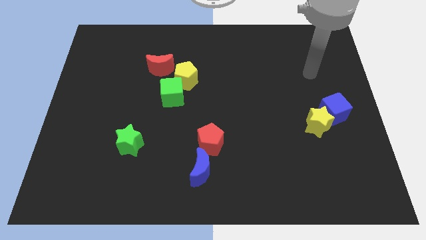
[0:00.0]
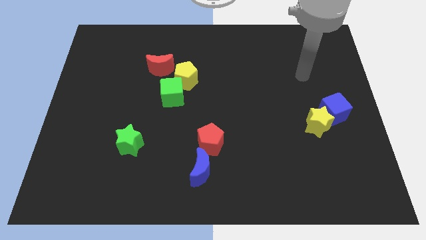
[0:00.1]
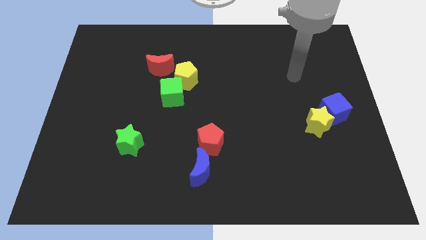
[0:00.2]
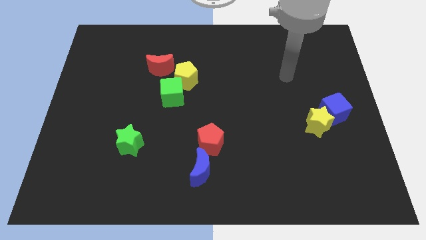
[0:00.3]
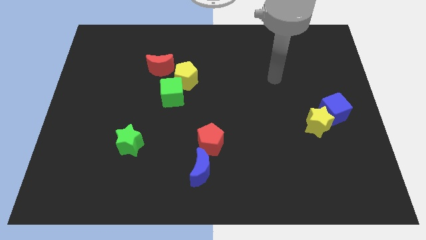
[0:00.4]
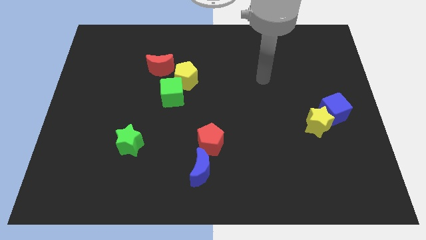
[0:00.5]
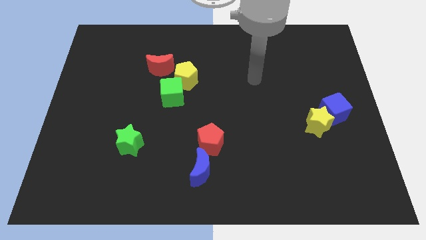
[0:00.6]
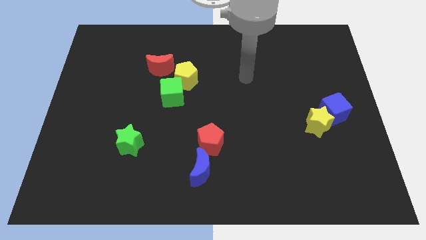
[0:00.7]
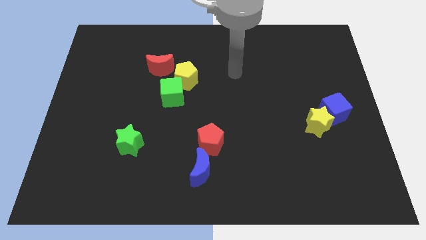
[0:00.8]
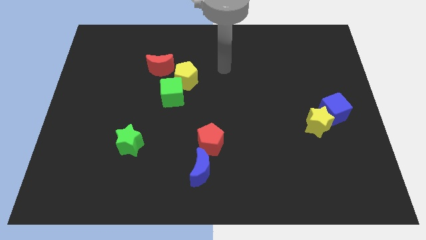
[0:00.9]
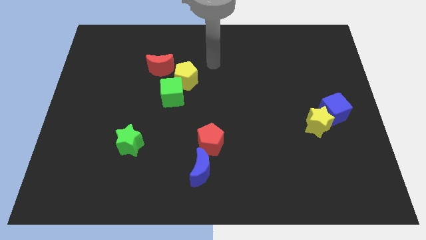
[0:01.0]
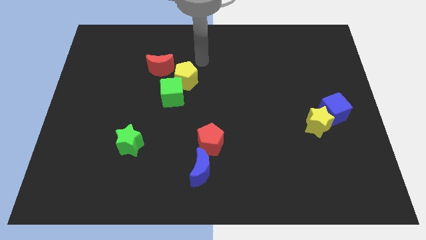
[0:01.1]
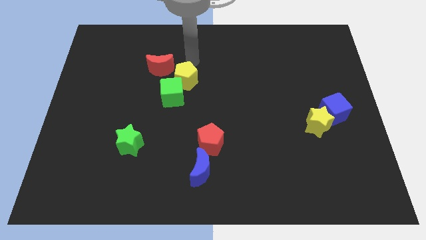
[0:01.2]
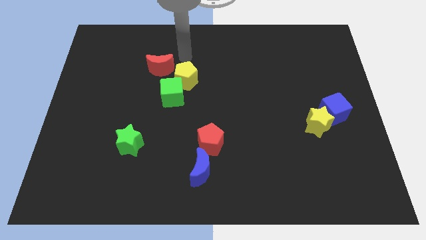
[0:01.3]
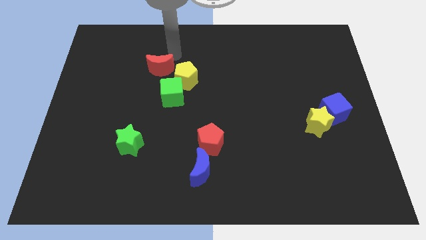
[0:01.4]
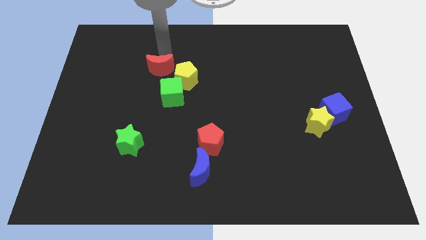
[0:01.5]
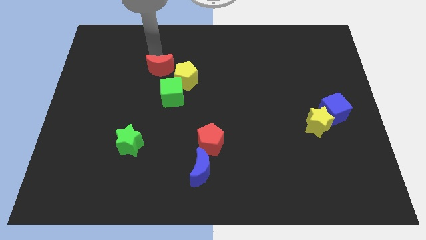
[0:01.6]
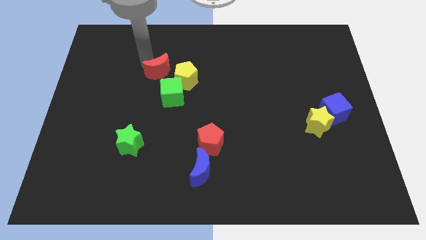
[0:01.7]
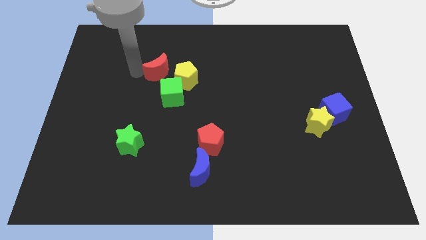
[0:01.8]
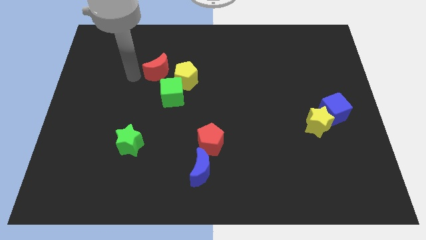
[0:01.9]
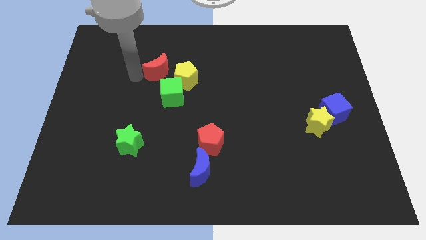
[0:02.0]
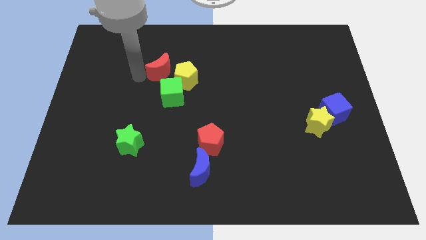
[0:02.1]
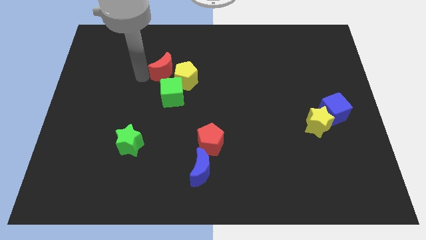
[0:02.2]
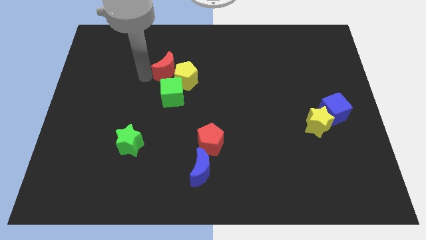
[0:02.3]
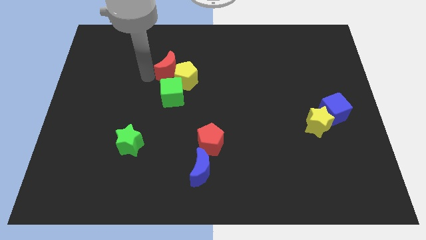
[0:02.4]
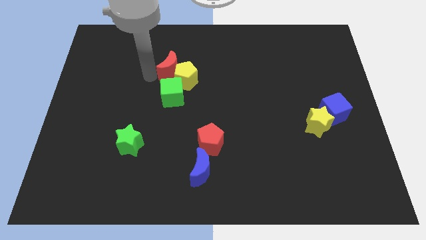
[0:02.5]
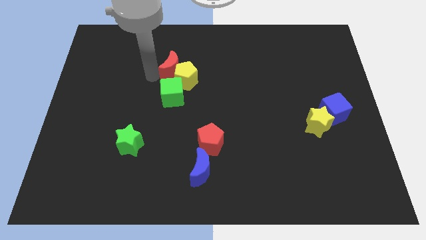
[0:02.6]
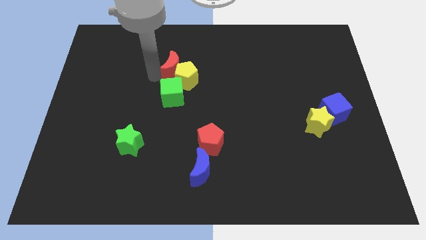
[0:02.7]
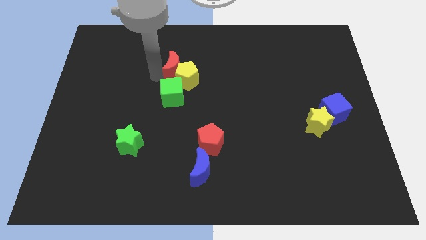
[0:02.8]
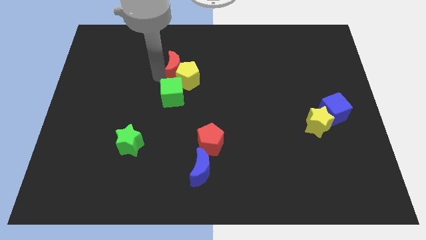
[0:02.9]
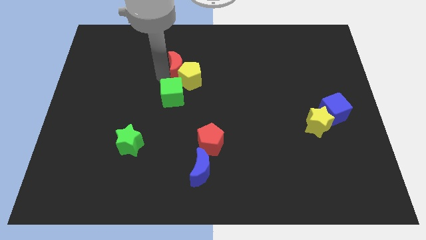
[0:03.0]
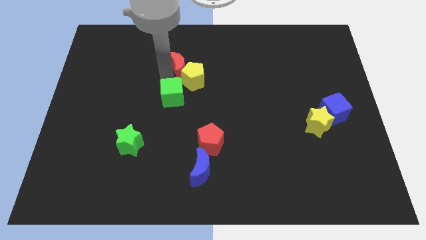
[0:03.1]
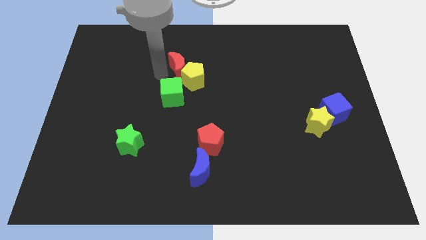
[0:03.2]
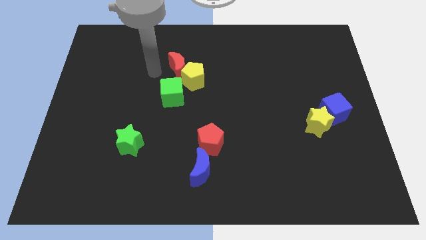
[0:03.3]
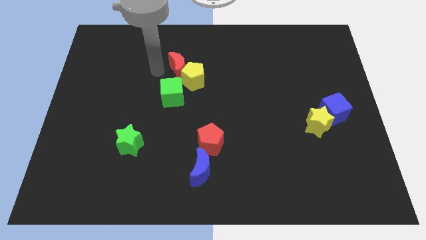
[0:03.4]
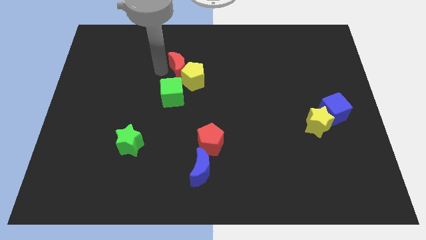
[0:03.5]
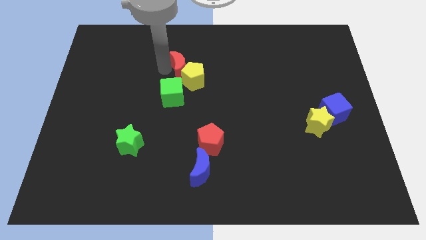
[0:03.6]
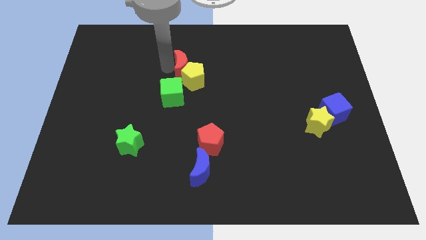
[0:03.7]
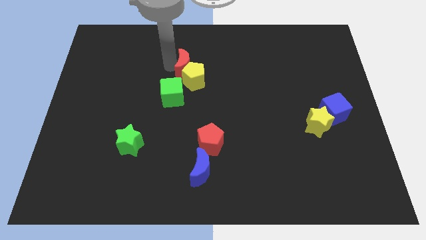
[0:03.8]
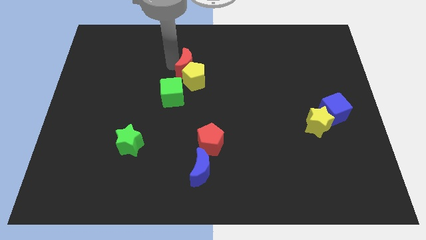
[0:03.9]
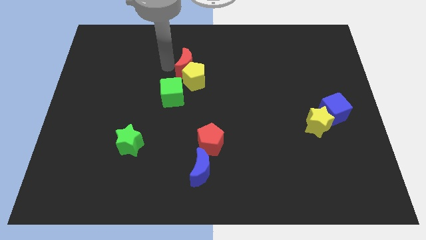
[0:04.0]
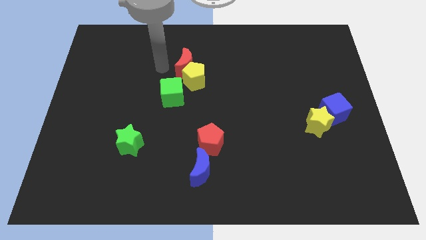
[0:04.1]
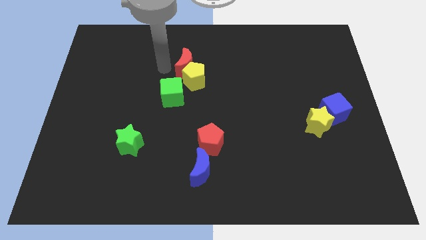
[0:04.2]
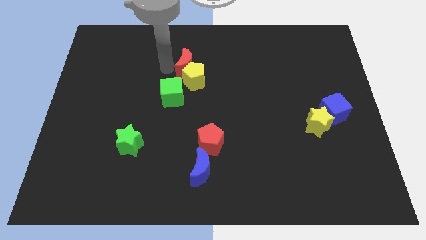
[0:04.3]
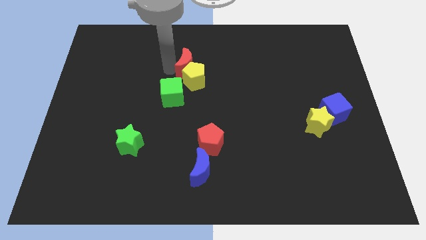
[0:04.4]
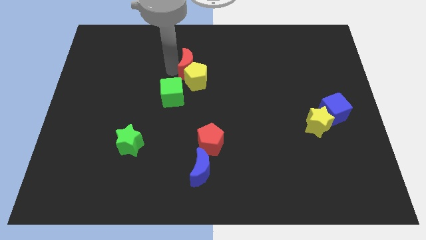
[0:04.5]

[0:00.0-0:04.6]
move the red moon to the right slightly

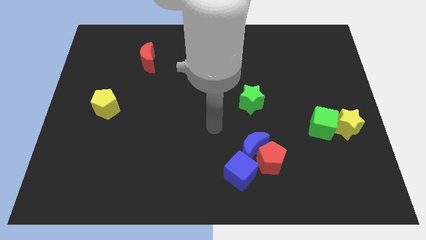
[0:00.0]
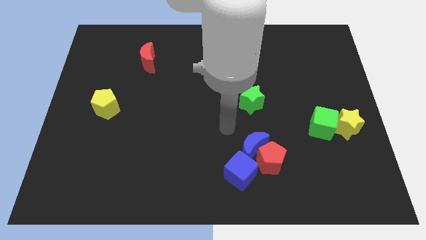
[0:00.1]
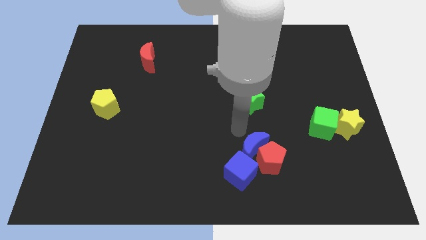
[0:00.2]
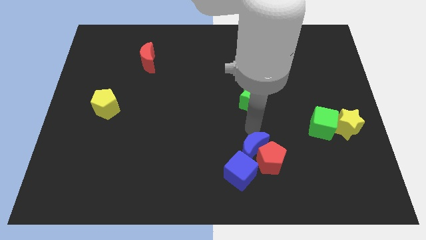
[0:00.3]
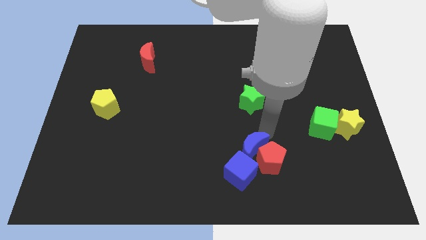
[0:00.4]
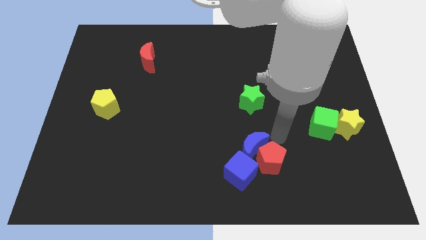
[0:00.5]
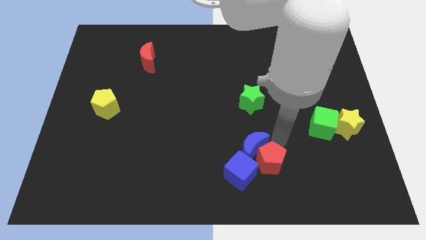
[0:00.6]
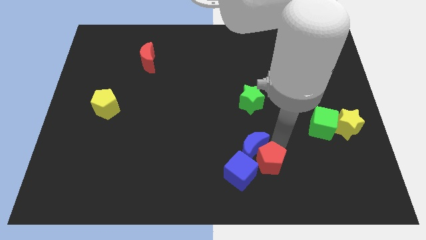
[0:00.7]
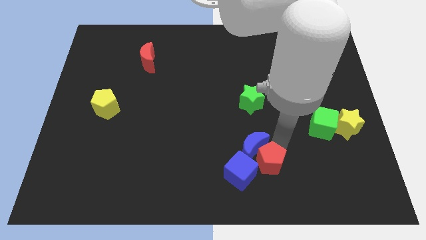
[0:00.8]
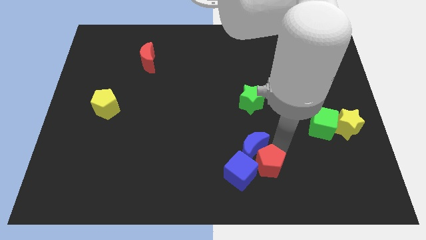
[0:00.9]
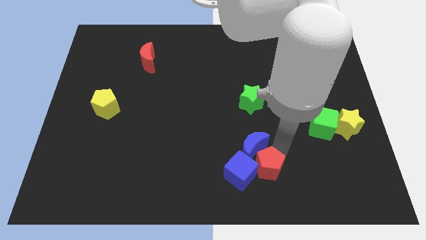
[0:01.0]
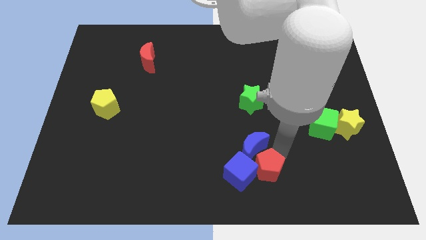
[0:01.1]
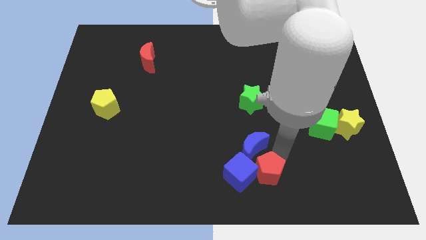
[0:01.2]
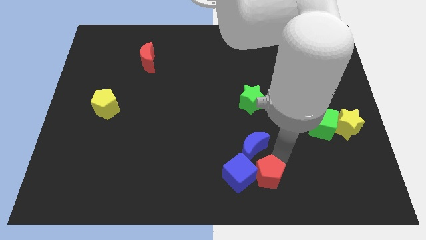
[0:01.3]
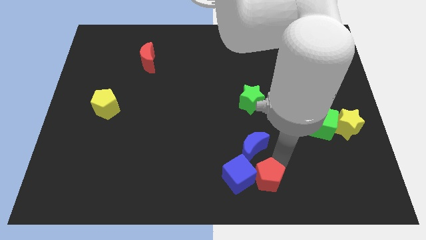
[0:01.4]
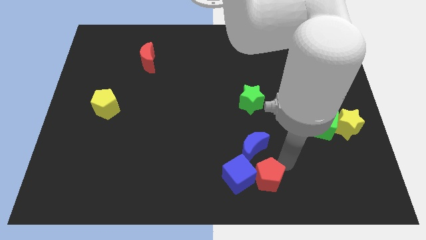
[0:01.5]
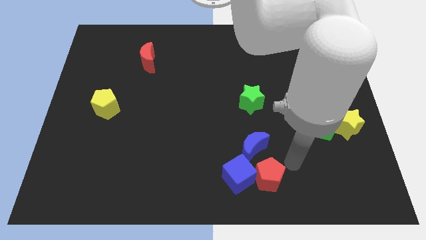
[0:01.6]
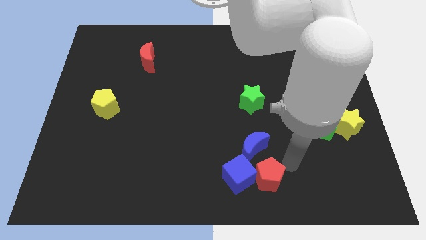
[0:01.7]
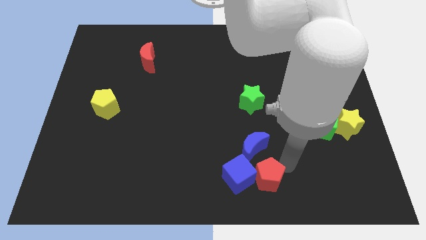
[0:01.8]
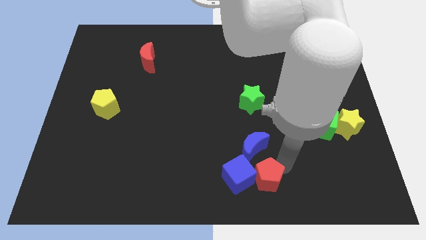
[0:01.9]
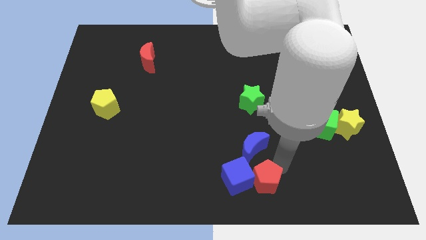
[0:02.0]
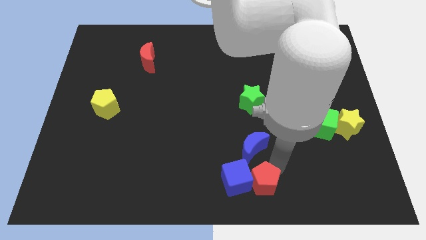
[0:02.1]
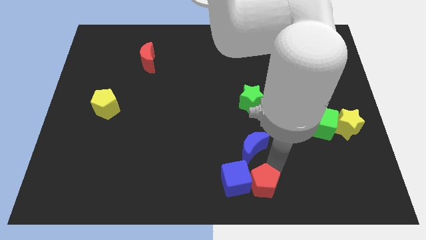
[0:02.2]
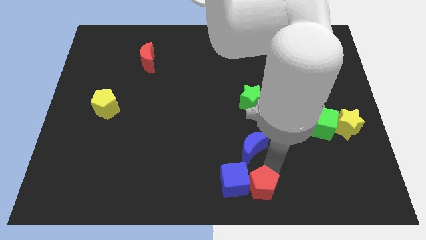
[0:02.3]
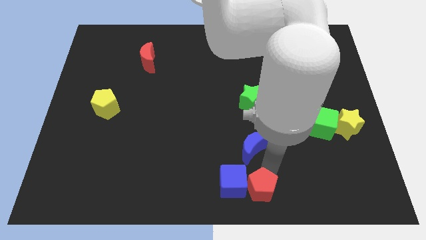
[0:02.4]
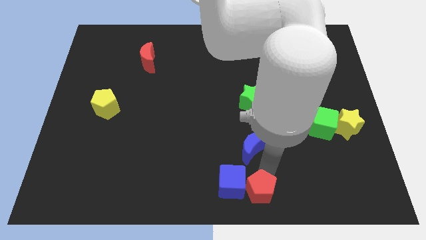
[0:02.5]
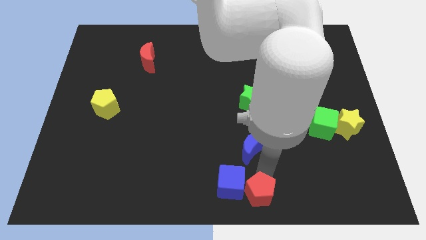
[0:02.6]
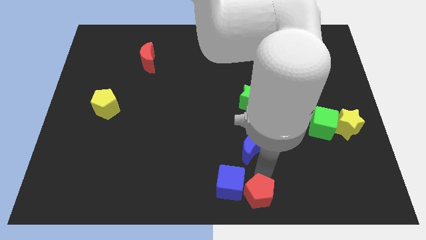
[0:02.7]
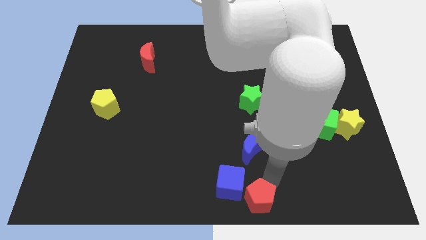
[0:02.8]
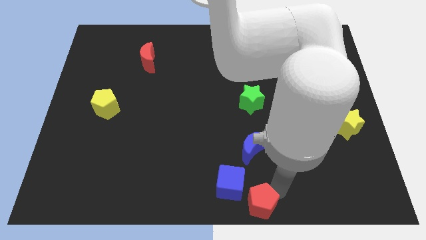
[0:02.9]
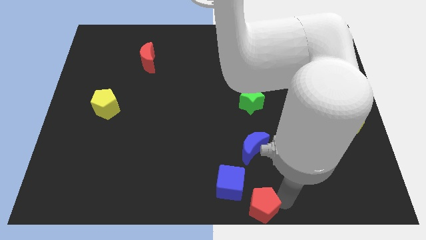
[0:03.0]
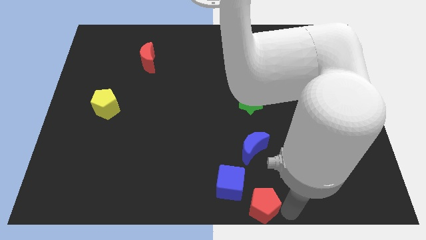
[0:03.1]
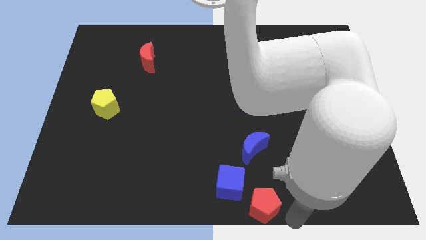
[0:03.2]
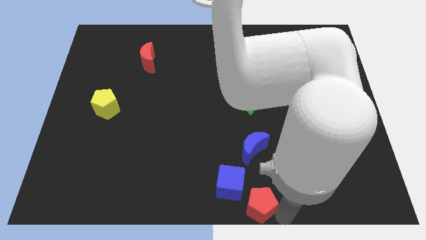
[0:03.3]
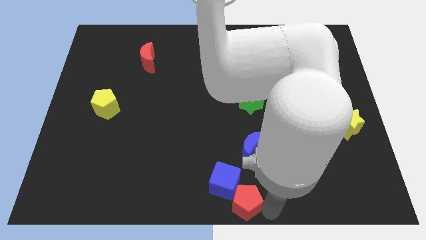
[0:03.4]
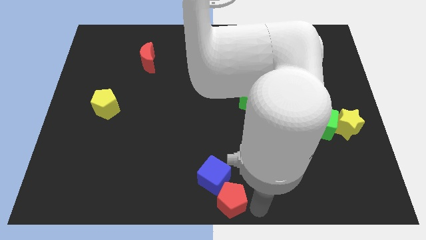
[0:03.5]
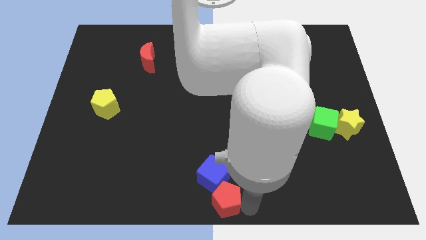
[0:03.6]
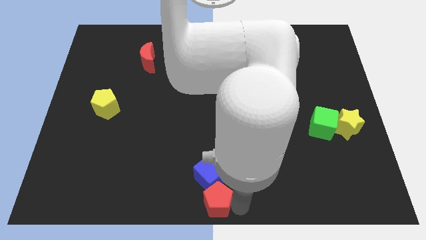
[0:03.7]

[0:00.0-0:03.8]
push the red pentagon somewhat left
